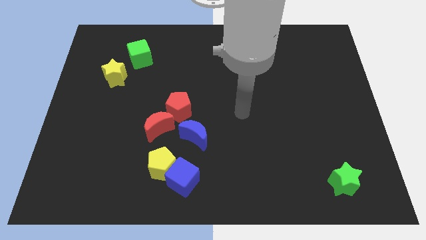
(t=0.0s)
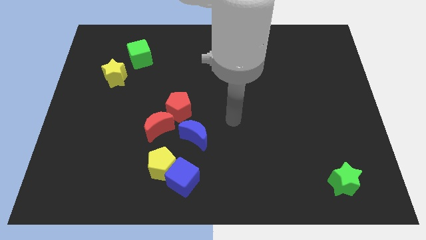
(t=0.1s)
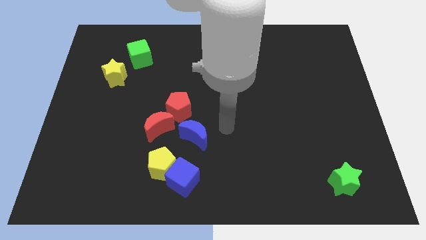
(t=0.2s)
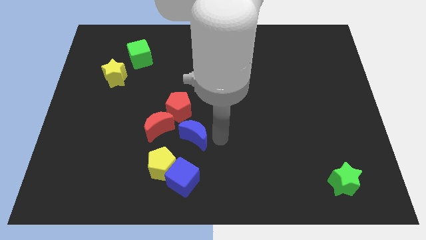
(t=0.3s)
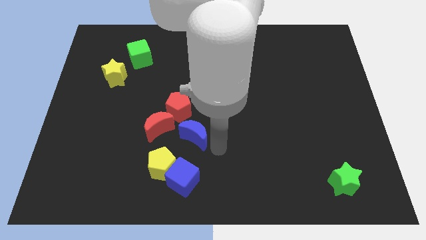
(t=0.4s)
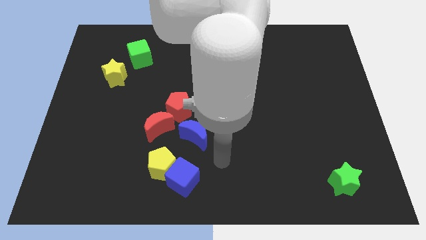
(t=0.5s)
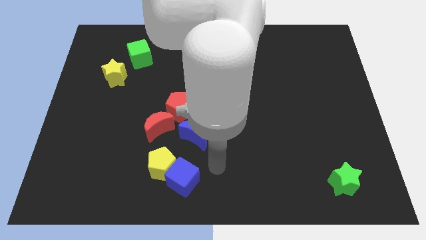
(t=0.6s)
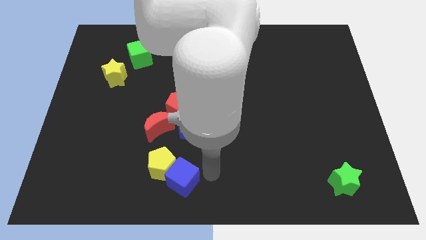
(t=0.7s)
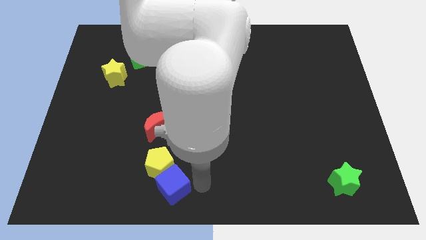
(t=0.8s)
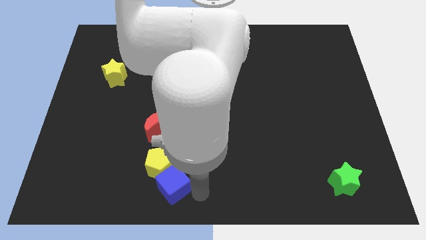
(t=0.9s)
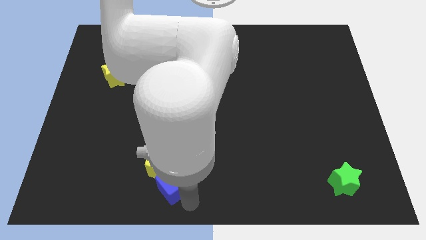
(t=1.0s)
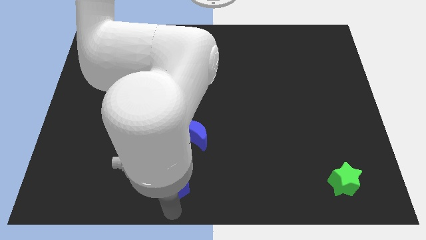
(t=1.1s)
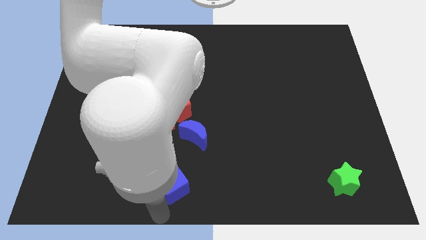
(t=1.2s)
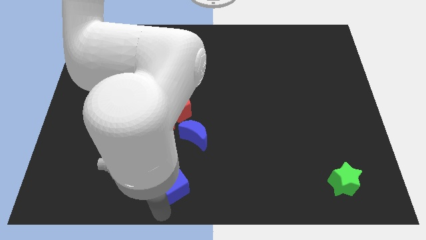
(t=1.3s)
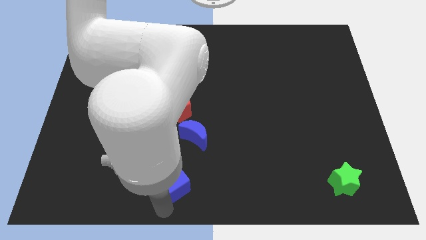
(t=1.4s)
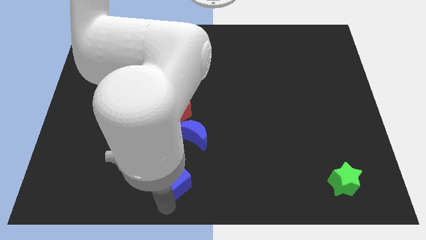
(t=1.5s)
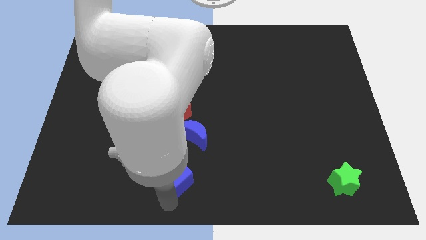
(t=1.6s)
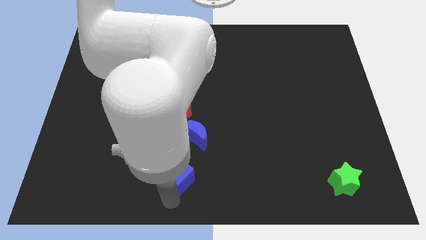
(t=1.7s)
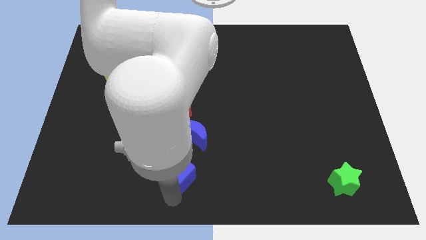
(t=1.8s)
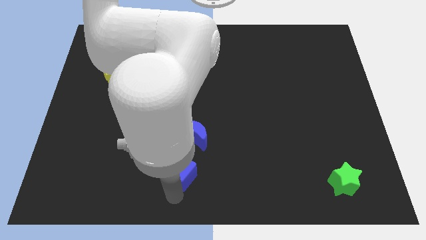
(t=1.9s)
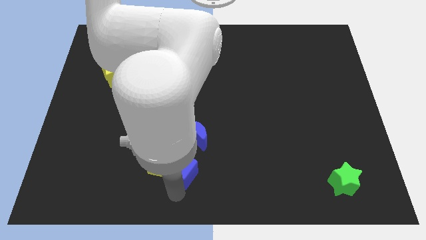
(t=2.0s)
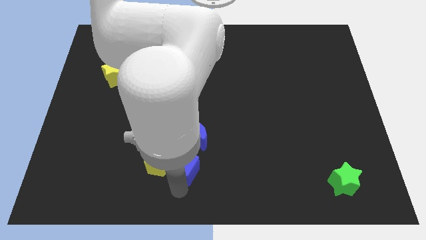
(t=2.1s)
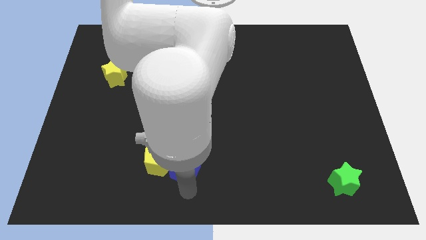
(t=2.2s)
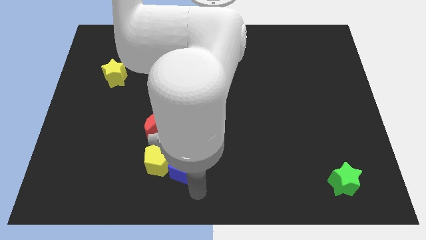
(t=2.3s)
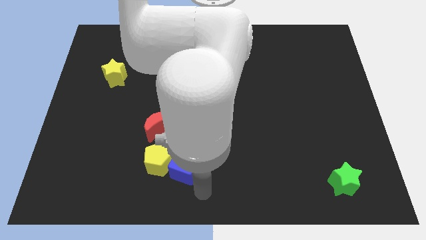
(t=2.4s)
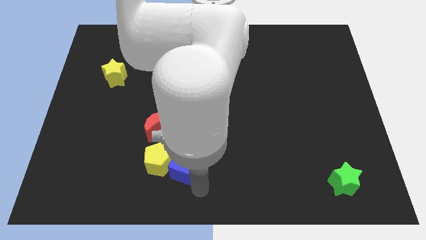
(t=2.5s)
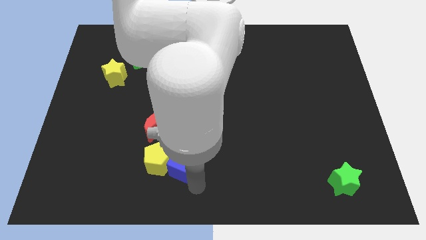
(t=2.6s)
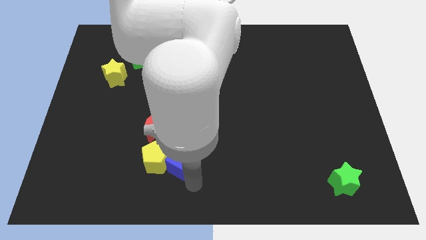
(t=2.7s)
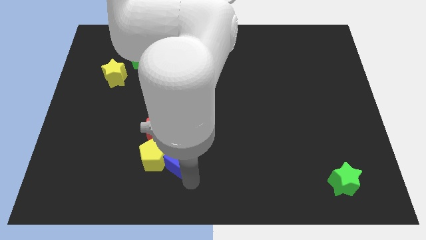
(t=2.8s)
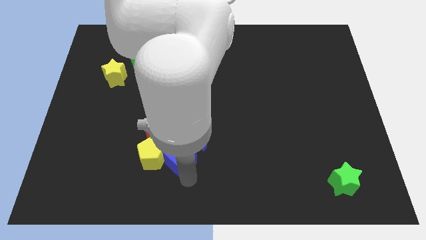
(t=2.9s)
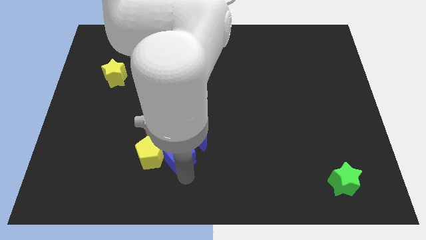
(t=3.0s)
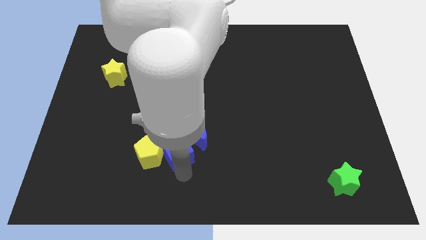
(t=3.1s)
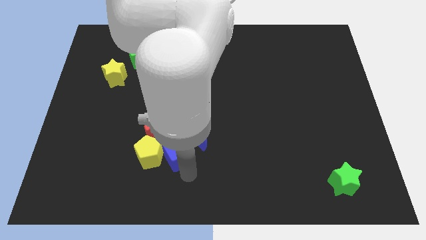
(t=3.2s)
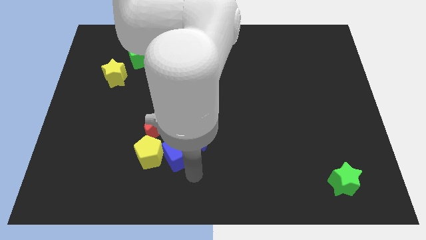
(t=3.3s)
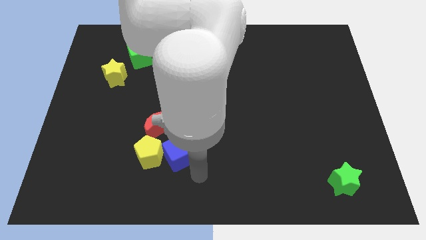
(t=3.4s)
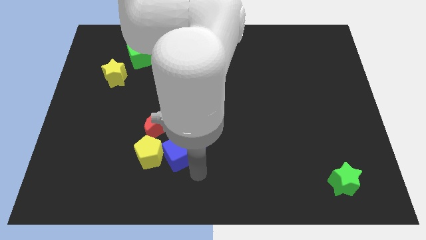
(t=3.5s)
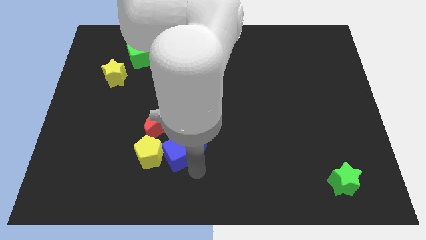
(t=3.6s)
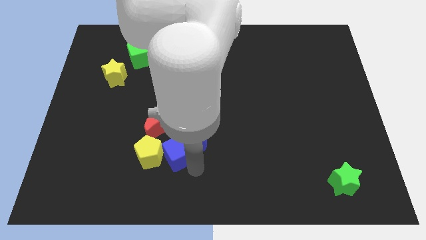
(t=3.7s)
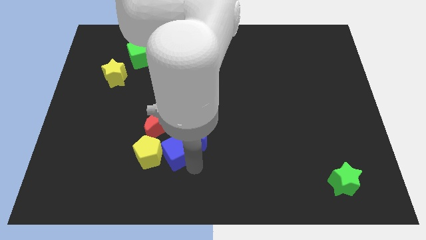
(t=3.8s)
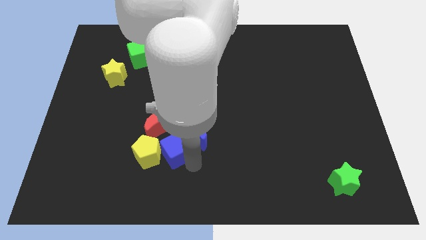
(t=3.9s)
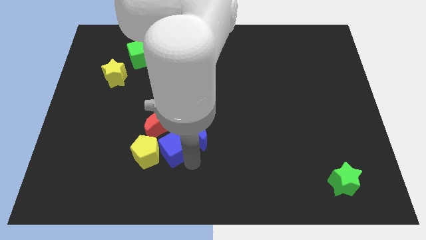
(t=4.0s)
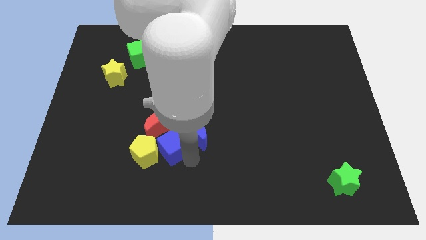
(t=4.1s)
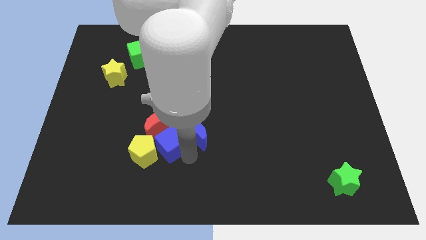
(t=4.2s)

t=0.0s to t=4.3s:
slightly slide the blue cube upwards and to the left

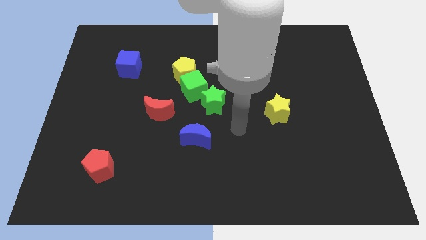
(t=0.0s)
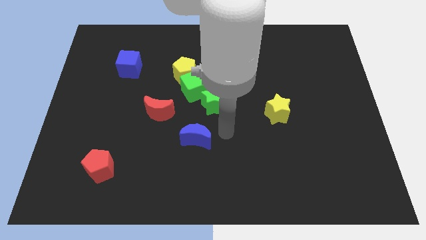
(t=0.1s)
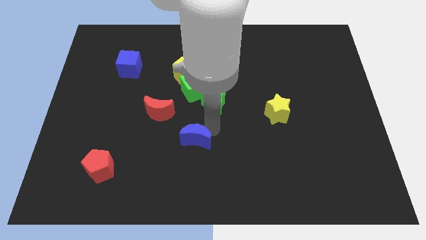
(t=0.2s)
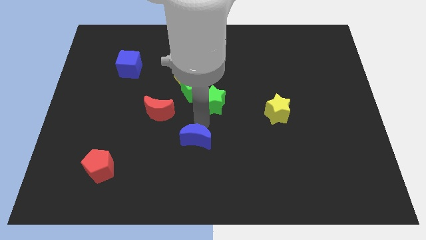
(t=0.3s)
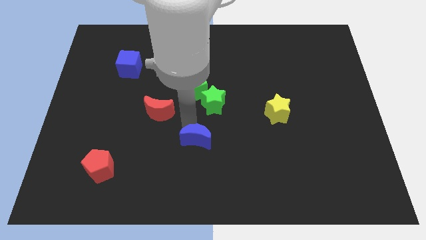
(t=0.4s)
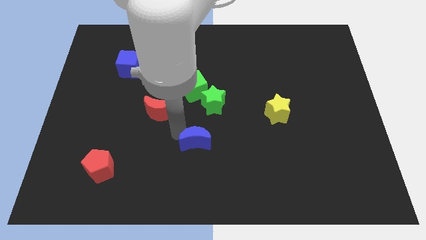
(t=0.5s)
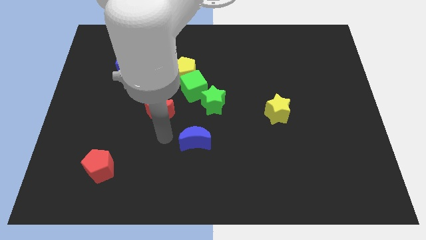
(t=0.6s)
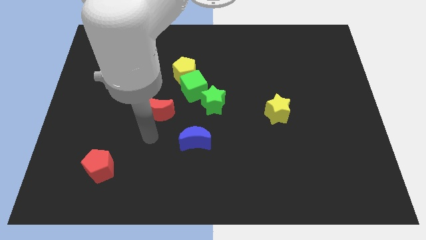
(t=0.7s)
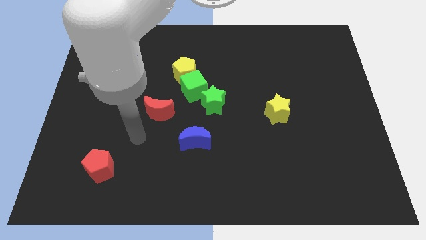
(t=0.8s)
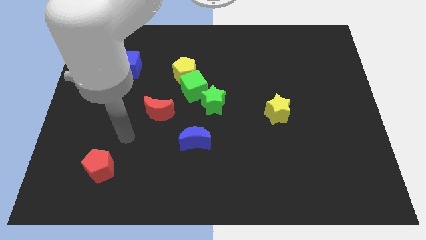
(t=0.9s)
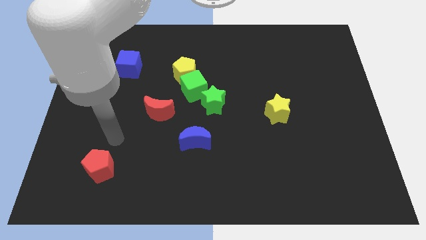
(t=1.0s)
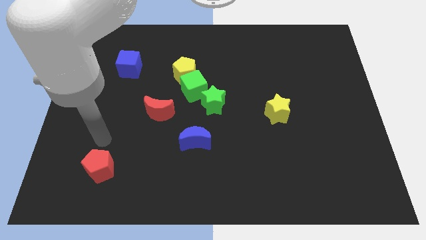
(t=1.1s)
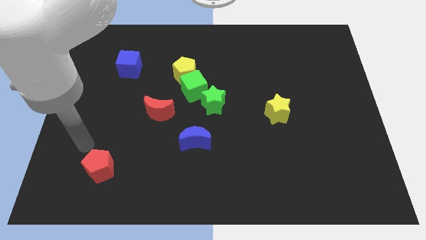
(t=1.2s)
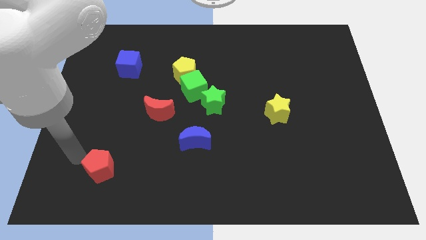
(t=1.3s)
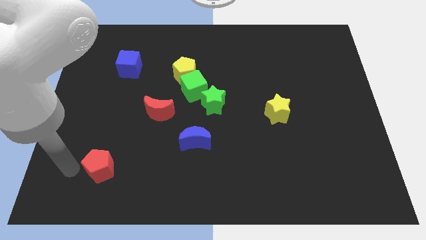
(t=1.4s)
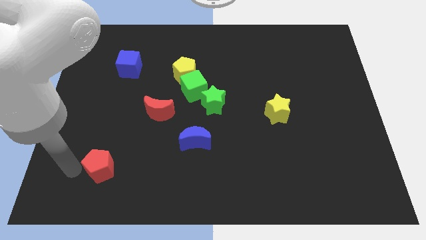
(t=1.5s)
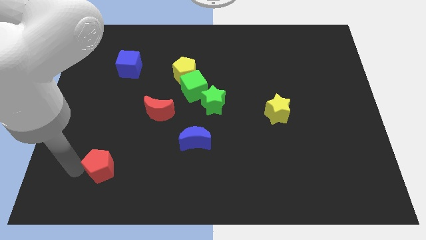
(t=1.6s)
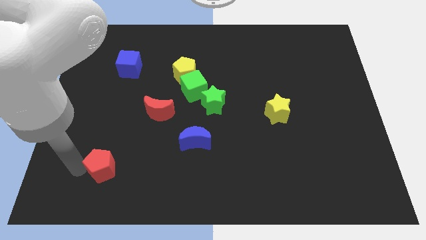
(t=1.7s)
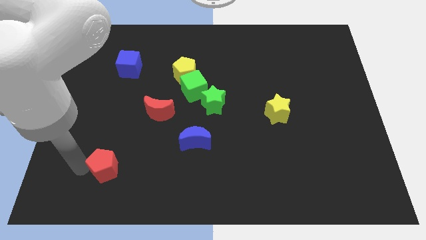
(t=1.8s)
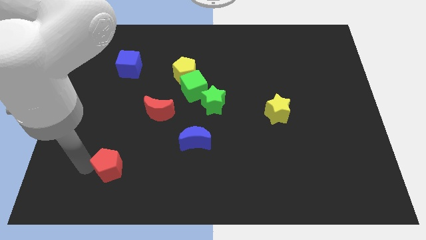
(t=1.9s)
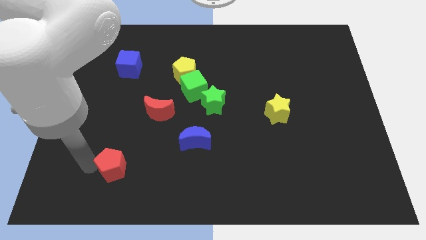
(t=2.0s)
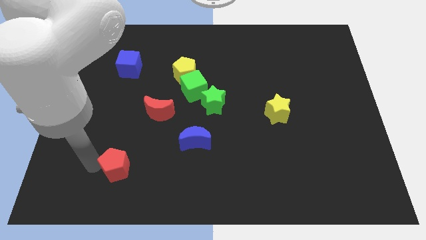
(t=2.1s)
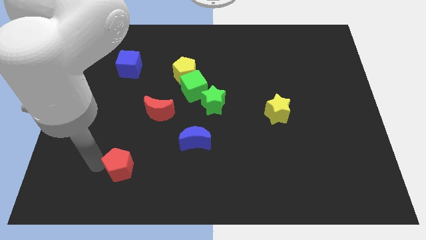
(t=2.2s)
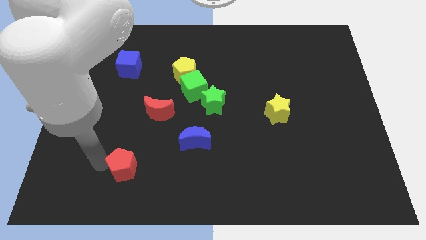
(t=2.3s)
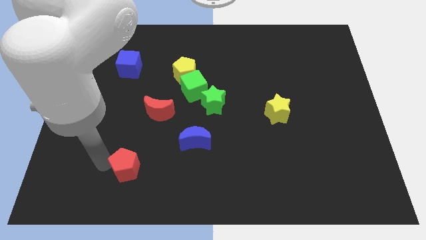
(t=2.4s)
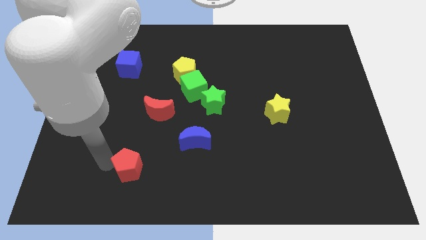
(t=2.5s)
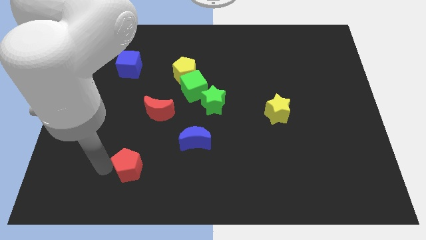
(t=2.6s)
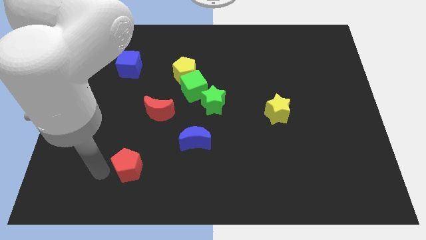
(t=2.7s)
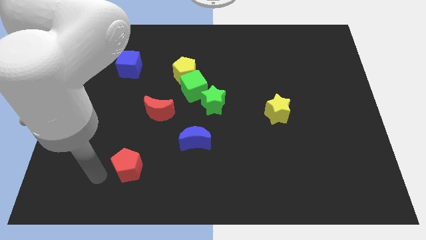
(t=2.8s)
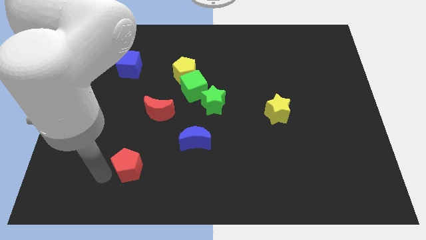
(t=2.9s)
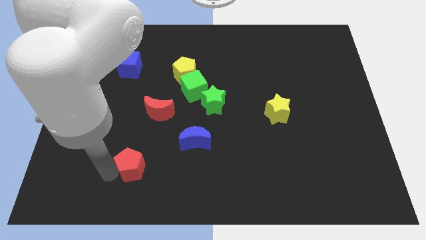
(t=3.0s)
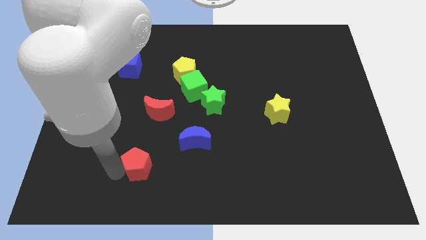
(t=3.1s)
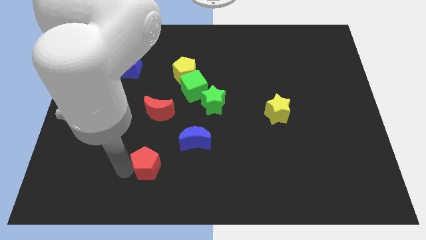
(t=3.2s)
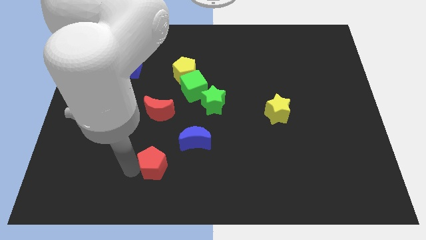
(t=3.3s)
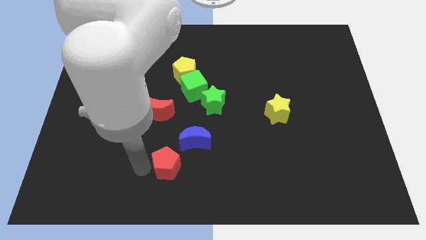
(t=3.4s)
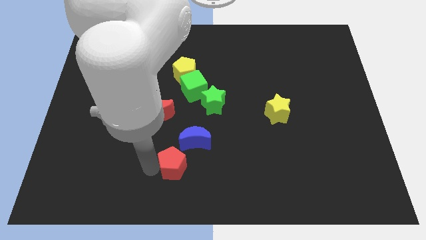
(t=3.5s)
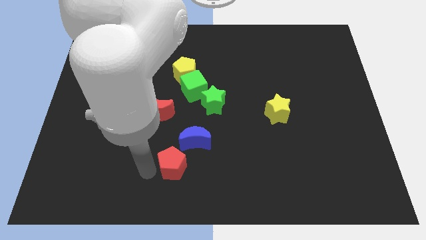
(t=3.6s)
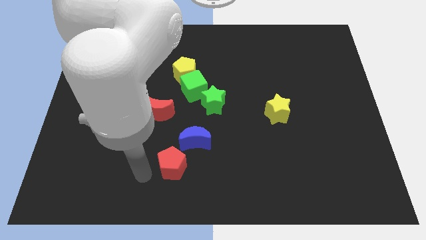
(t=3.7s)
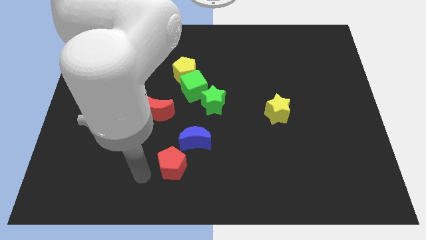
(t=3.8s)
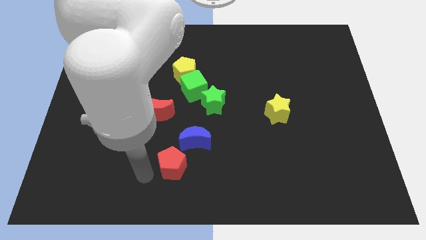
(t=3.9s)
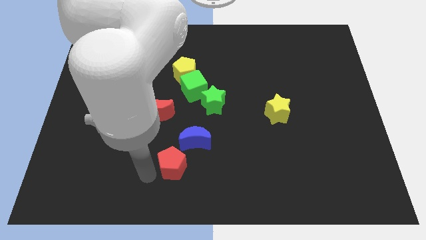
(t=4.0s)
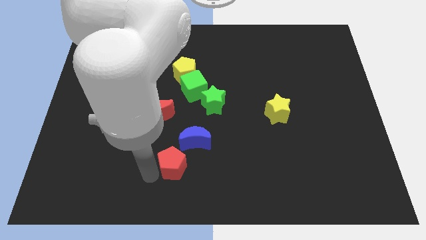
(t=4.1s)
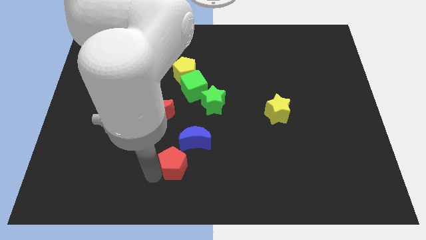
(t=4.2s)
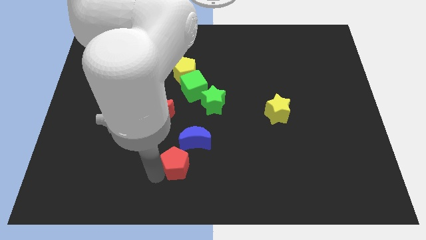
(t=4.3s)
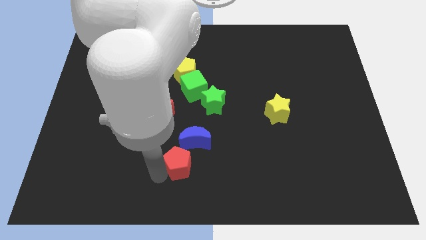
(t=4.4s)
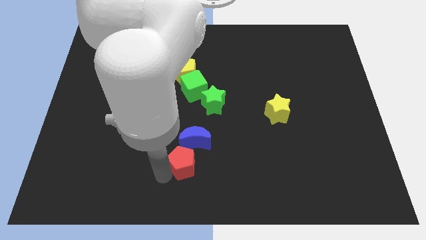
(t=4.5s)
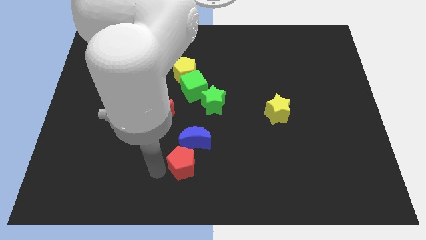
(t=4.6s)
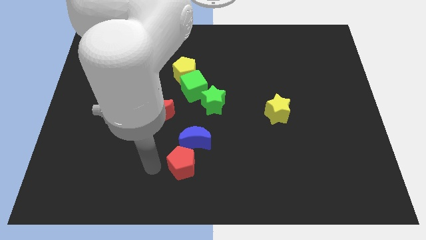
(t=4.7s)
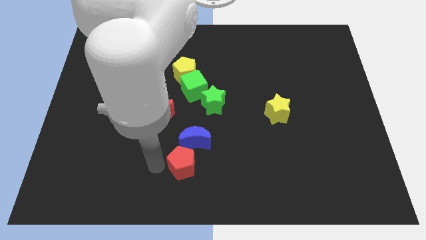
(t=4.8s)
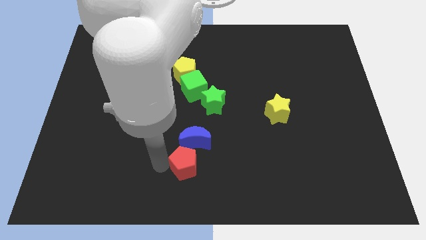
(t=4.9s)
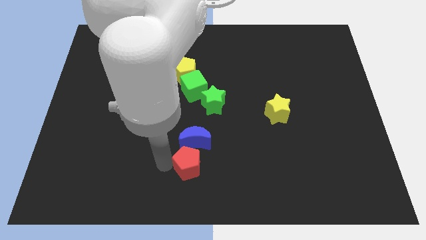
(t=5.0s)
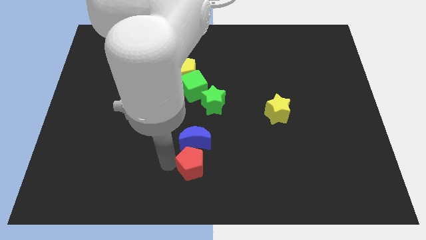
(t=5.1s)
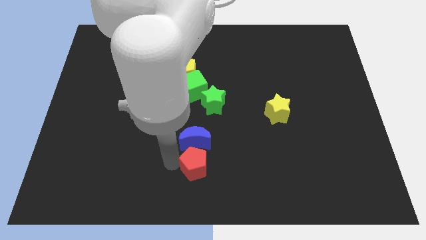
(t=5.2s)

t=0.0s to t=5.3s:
push the red pentagon right
